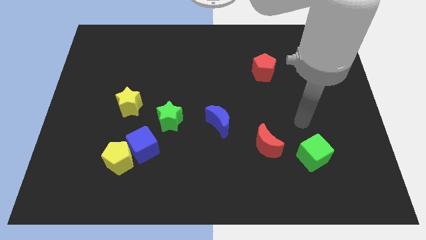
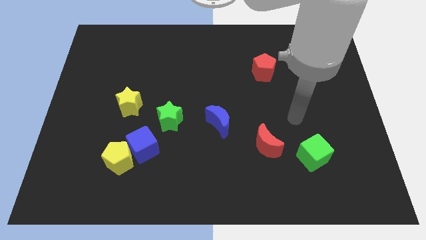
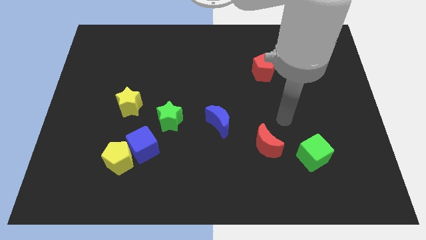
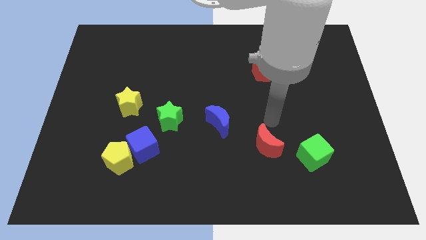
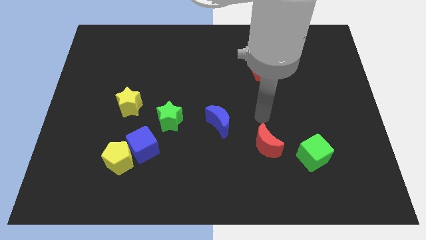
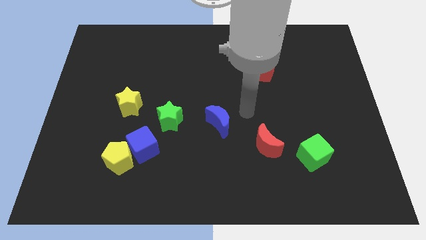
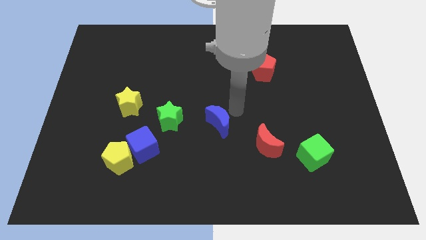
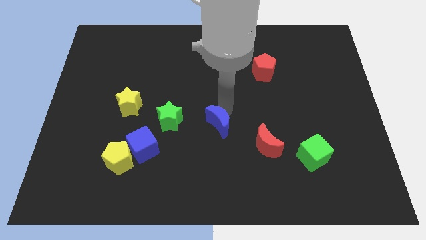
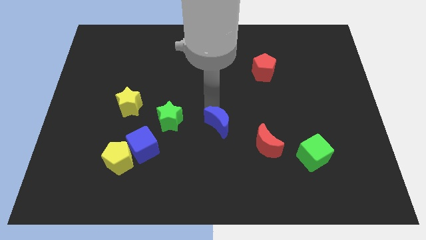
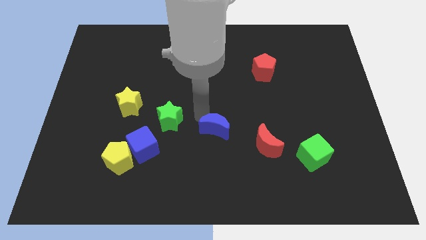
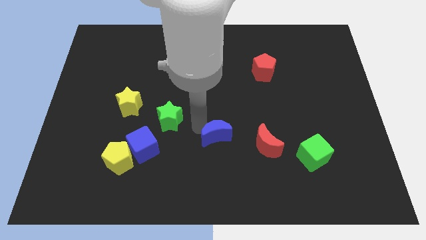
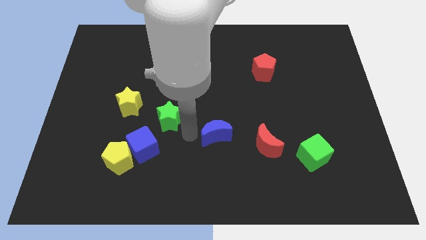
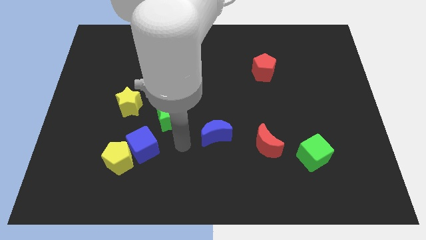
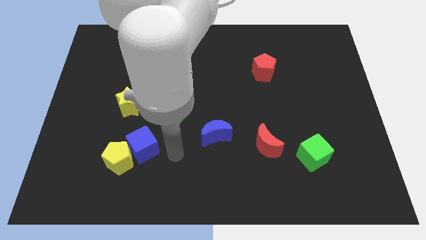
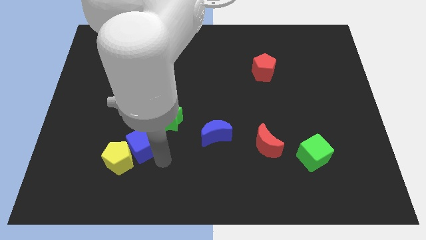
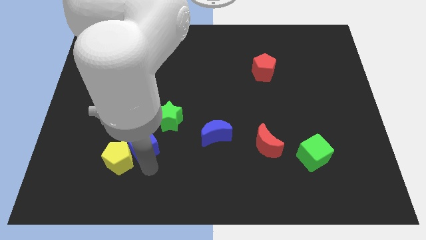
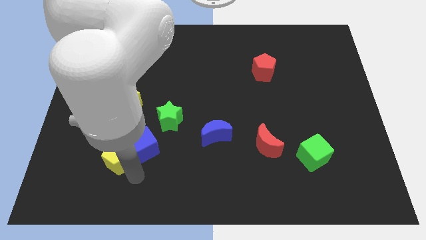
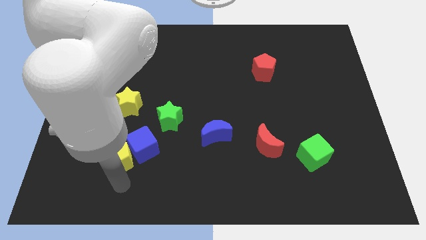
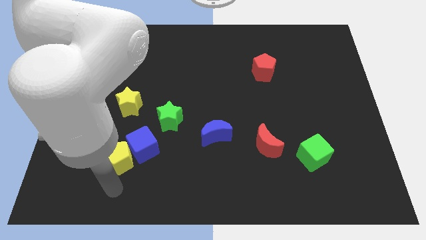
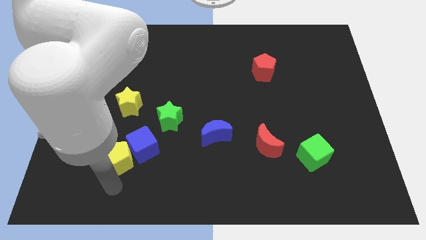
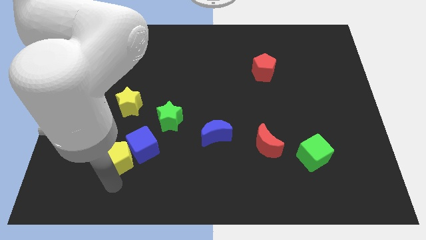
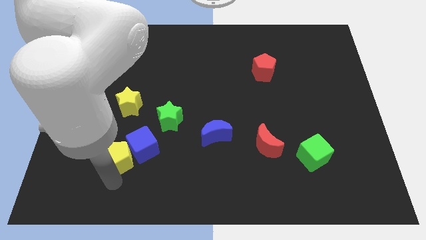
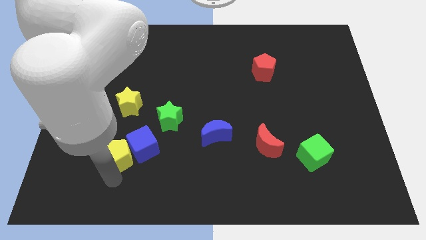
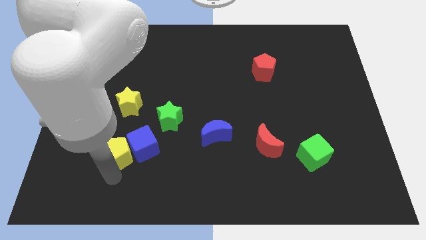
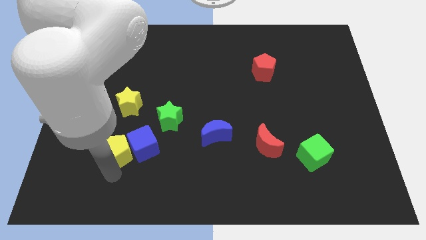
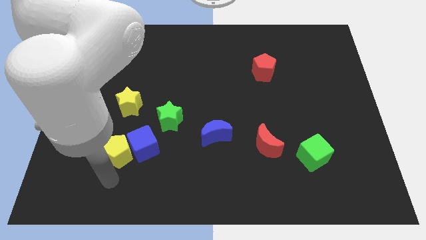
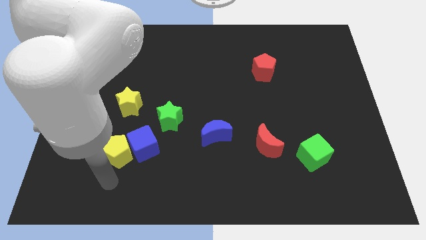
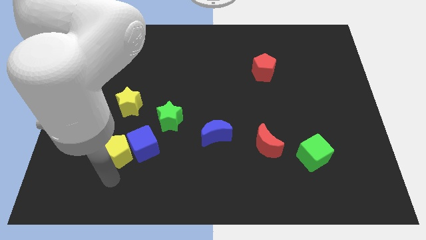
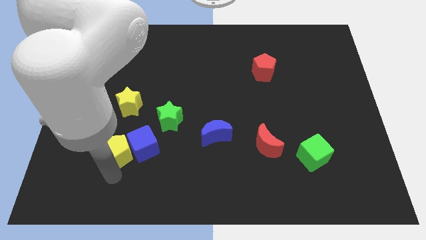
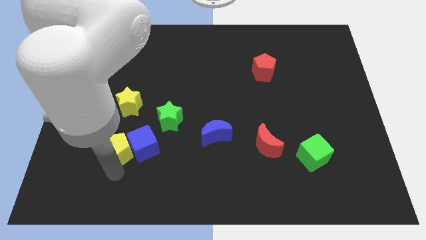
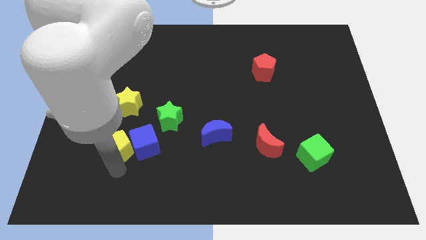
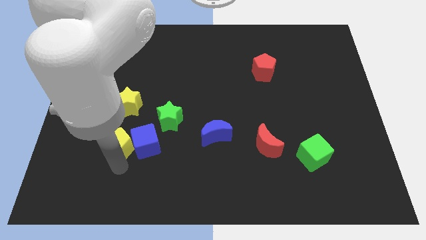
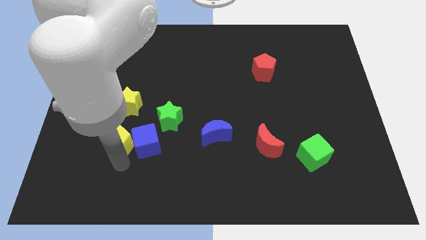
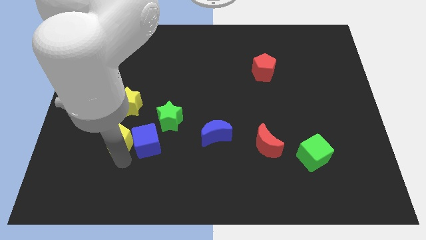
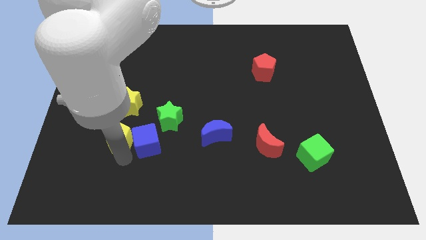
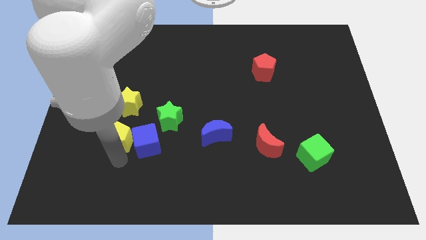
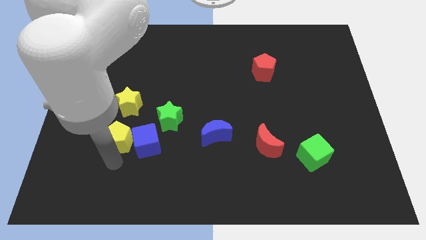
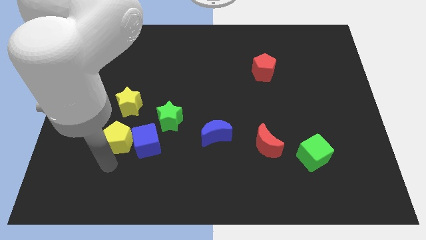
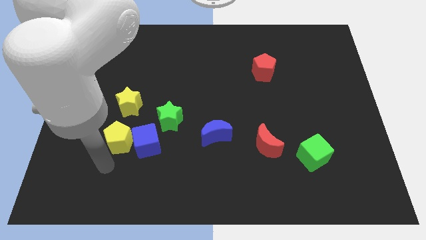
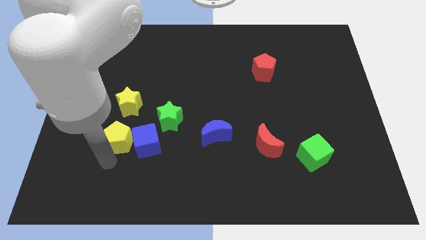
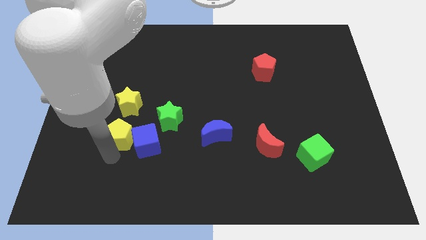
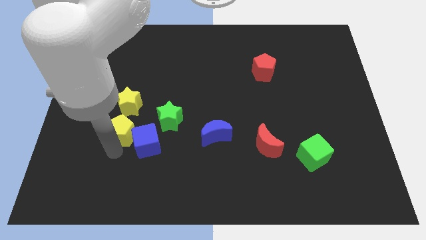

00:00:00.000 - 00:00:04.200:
move the yellow pentagon up slightly

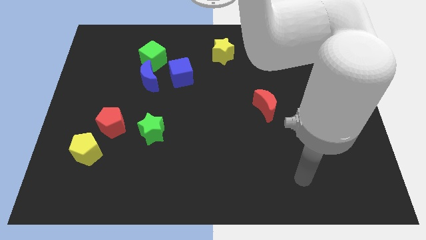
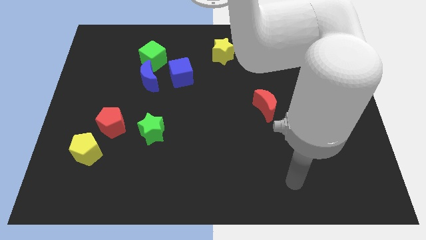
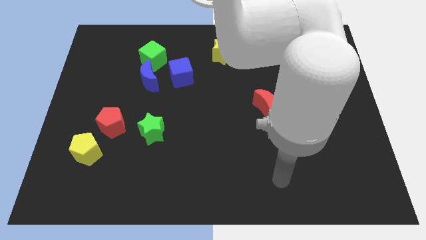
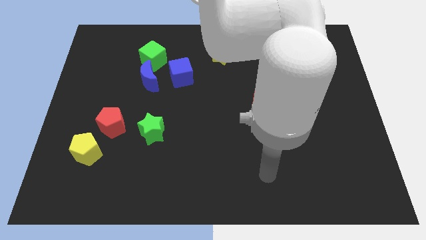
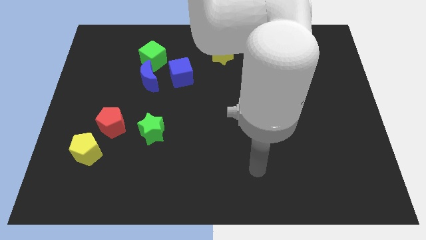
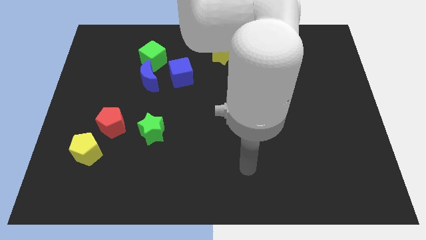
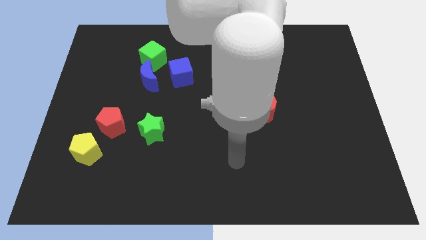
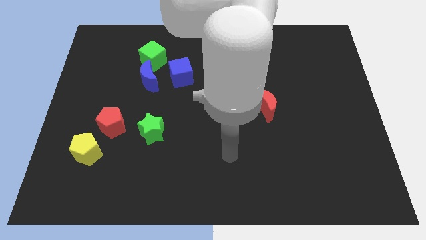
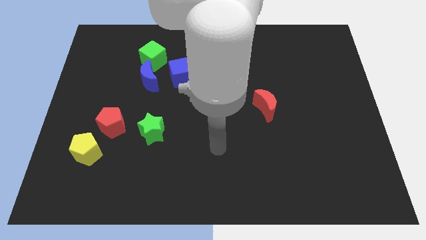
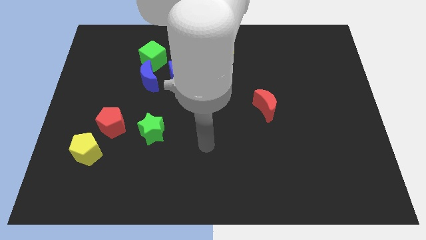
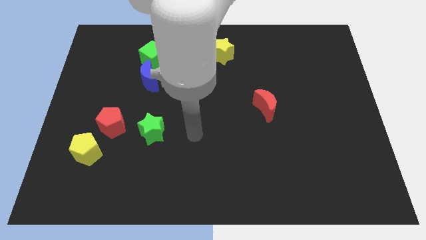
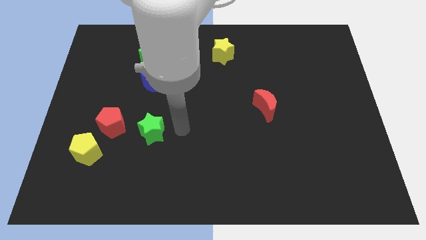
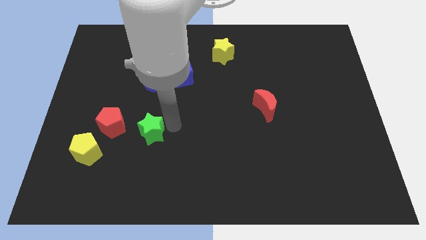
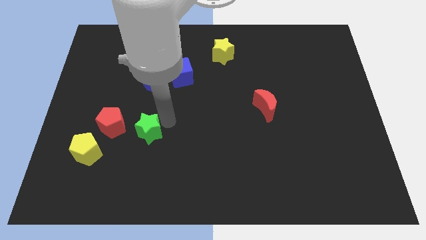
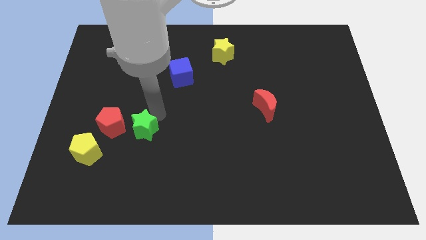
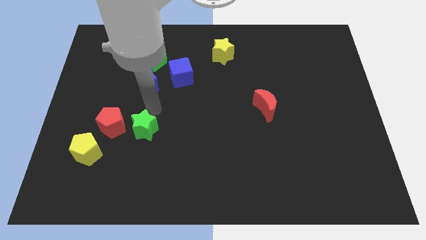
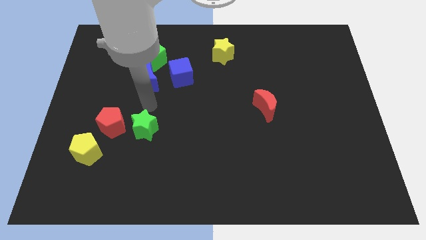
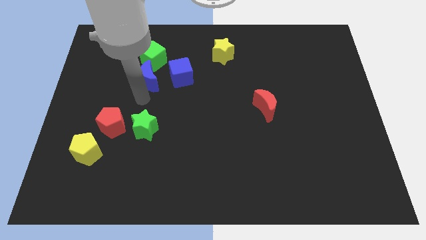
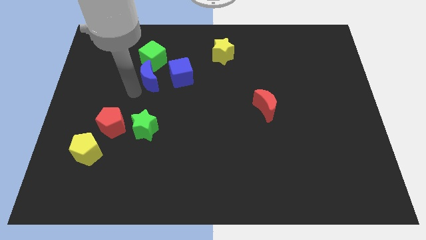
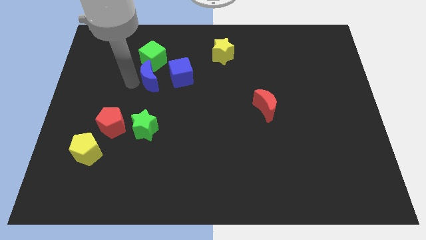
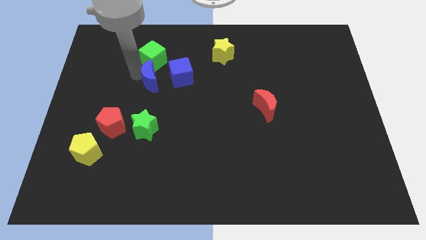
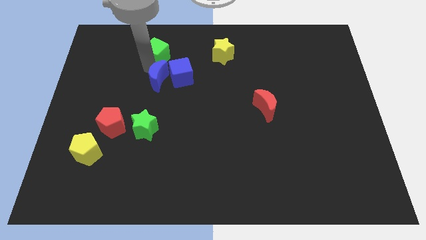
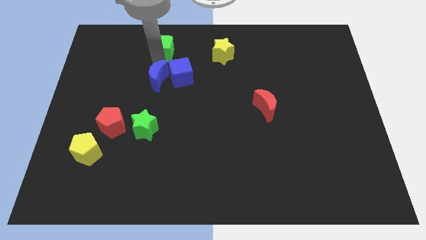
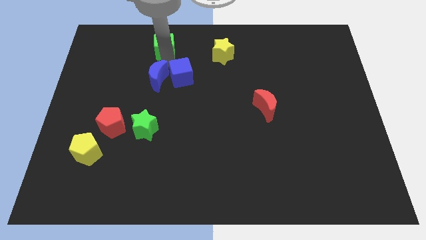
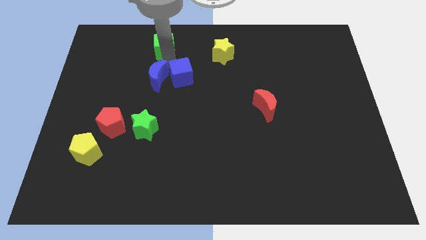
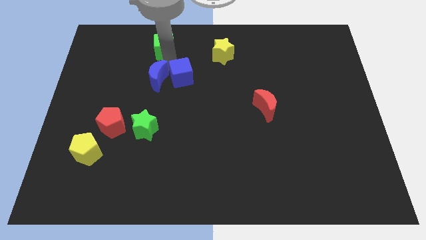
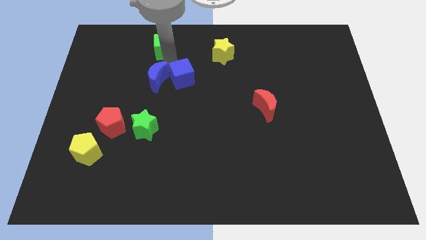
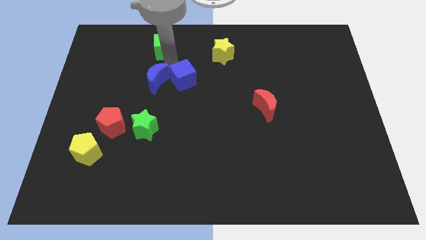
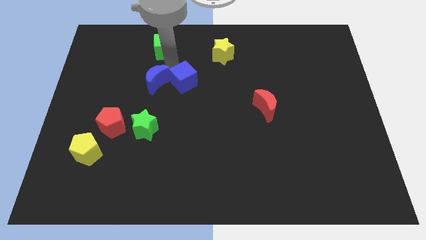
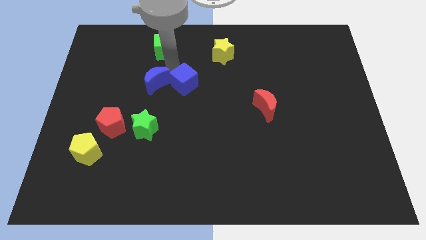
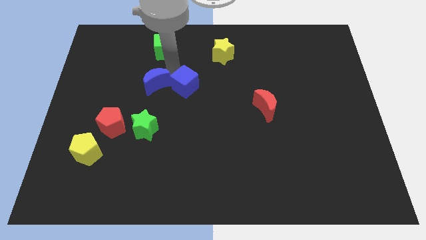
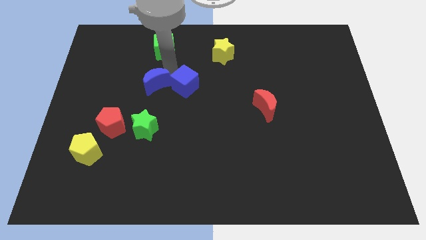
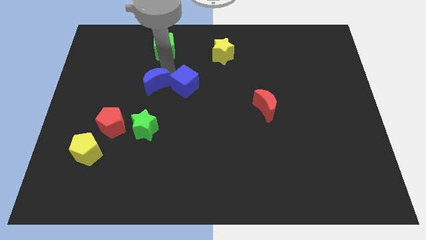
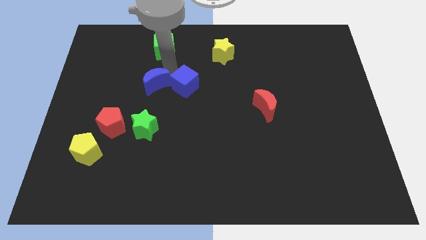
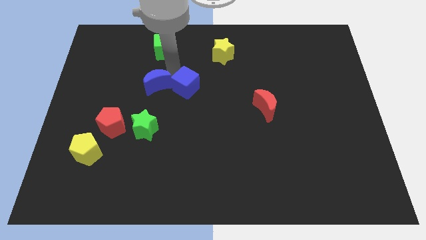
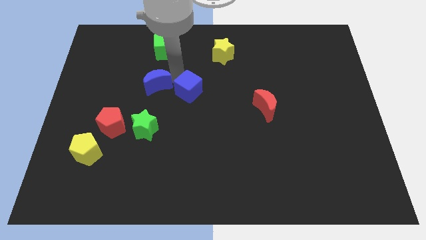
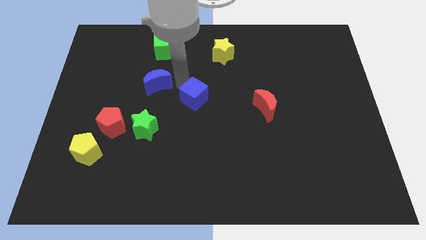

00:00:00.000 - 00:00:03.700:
push the blue cube down and then to the right somewhat

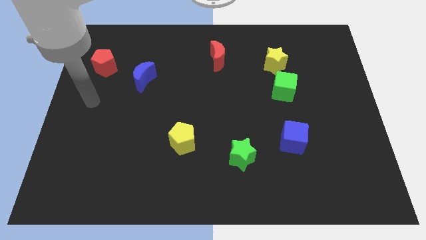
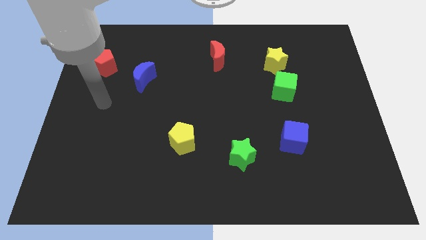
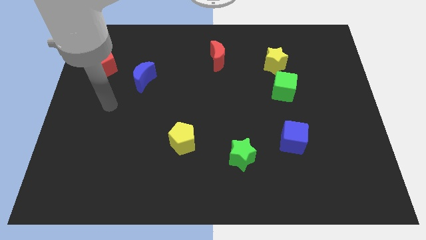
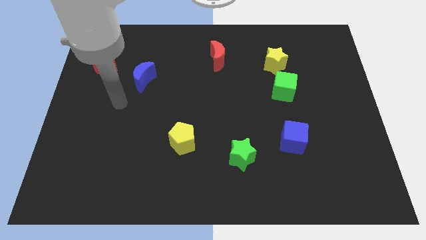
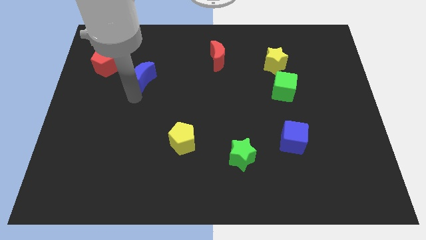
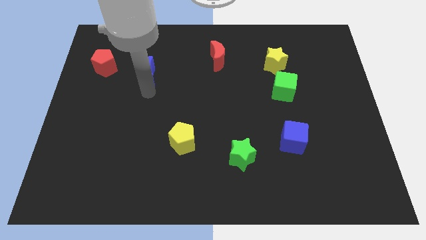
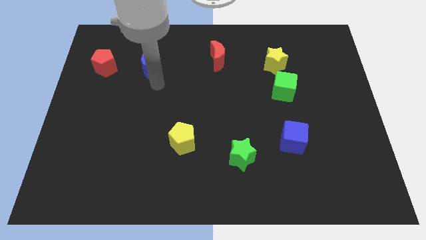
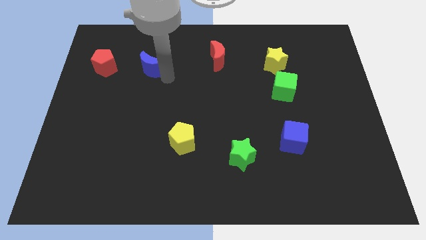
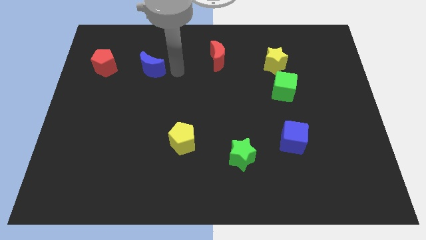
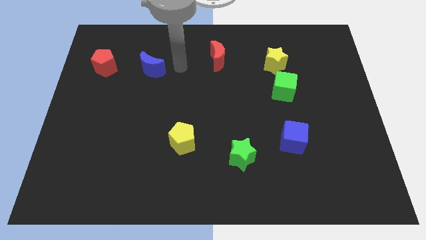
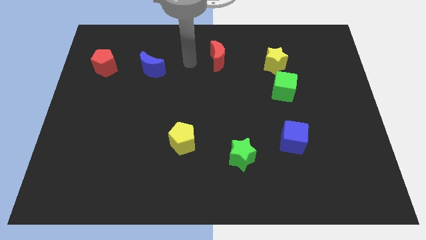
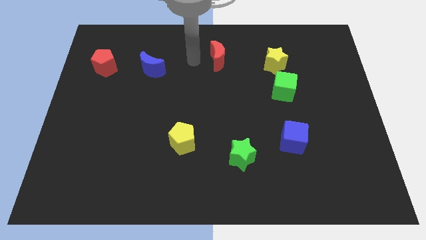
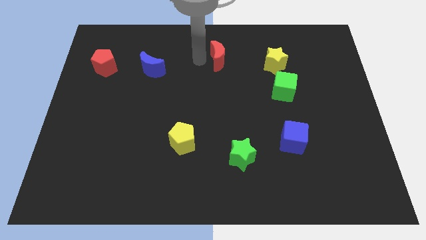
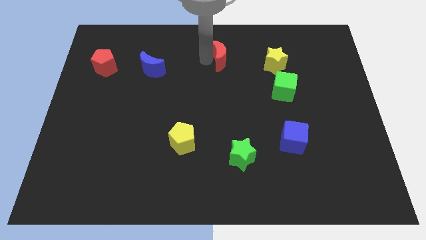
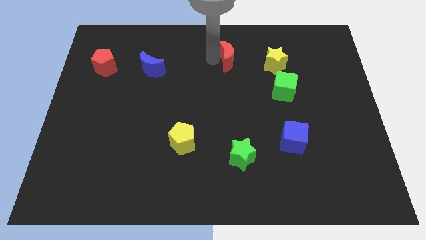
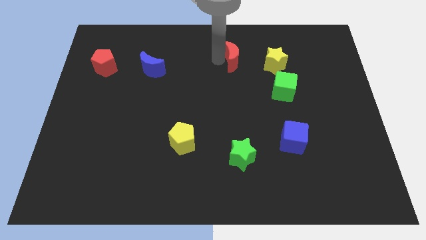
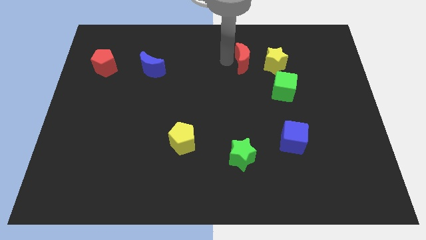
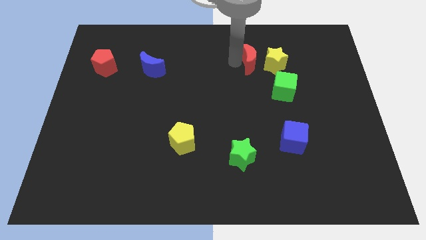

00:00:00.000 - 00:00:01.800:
move the red moon a bit right
